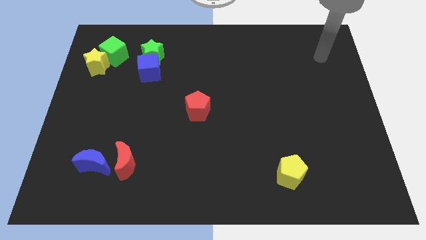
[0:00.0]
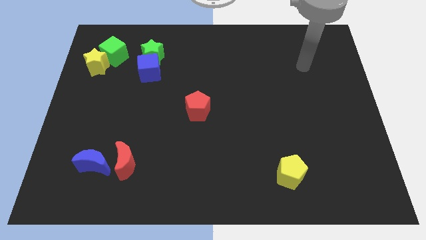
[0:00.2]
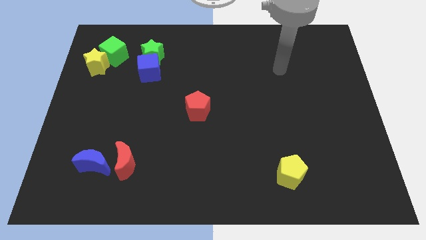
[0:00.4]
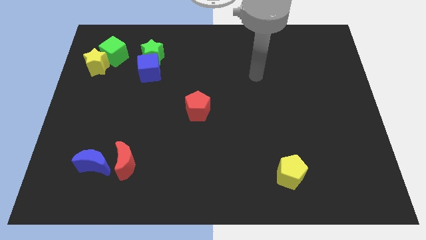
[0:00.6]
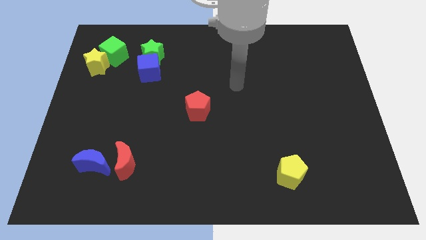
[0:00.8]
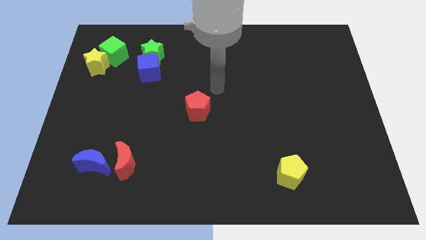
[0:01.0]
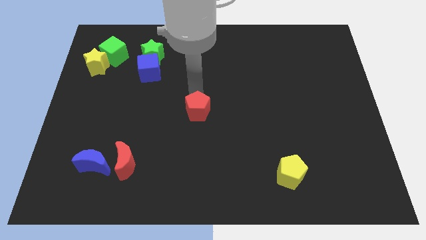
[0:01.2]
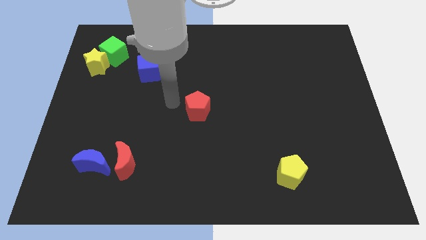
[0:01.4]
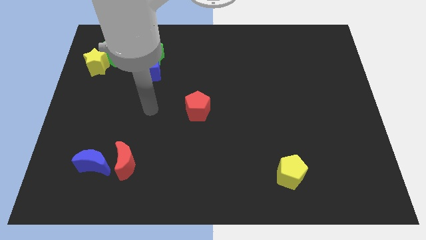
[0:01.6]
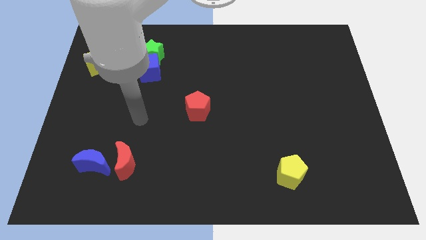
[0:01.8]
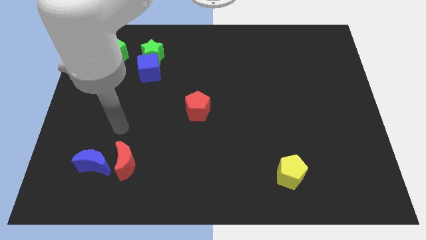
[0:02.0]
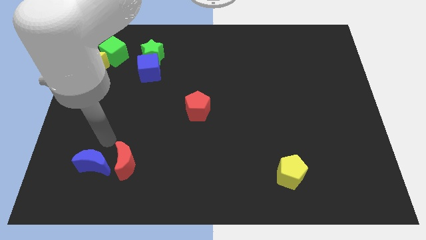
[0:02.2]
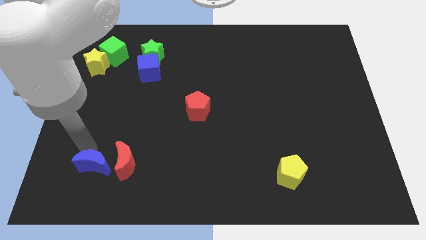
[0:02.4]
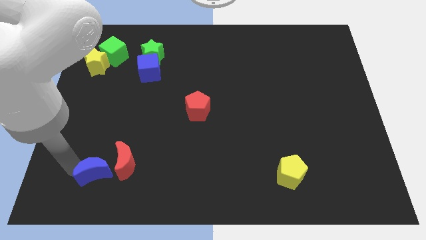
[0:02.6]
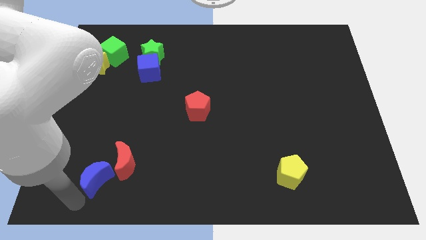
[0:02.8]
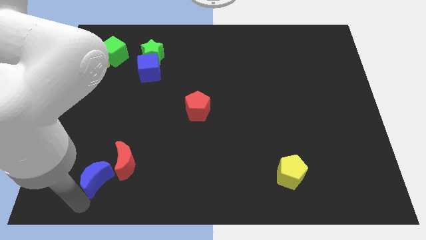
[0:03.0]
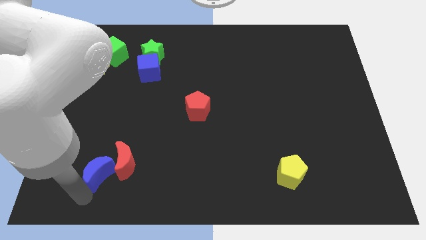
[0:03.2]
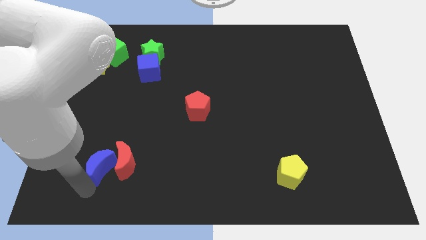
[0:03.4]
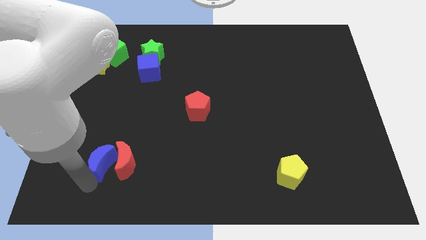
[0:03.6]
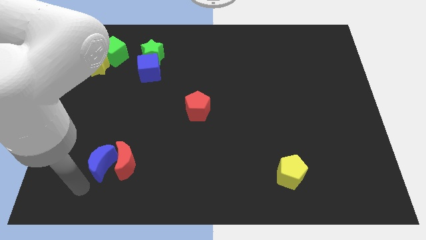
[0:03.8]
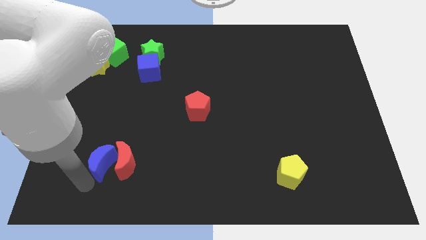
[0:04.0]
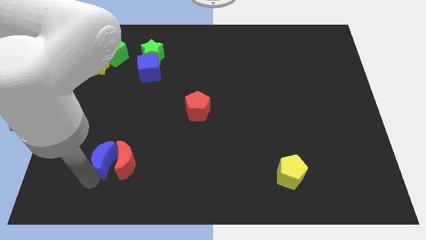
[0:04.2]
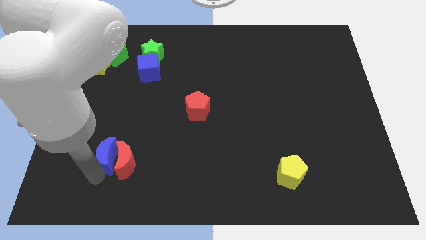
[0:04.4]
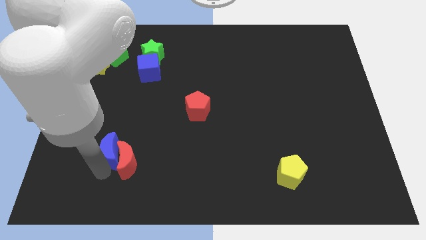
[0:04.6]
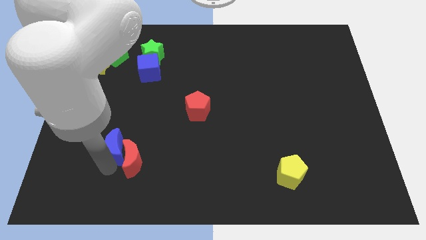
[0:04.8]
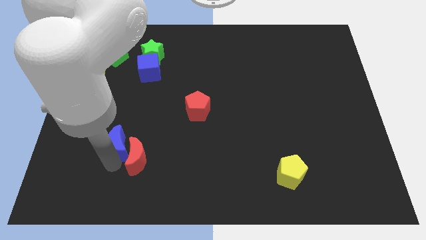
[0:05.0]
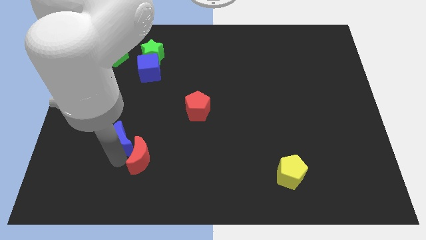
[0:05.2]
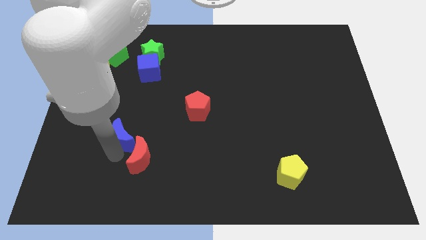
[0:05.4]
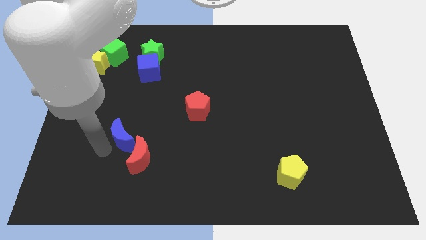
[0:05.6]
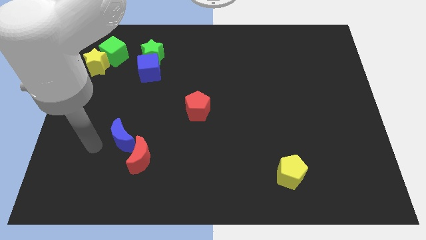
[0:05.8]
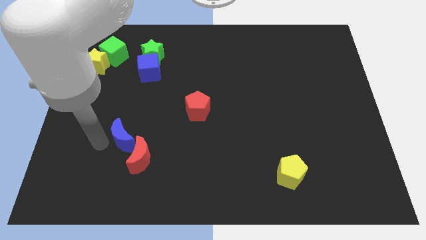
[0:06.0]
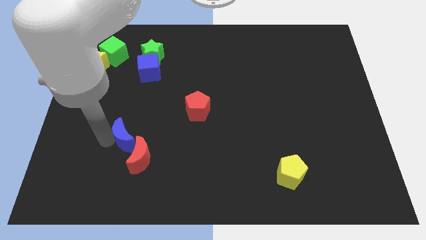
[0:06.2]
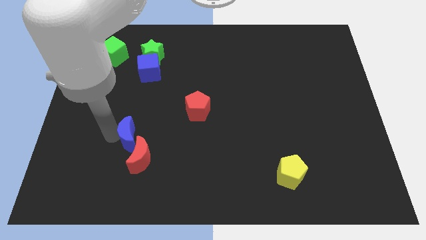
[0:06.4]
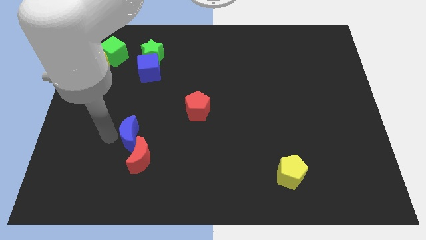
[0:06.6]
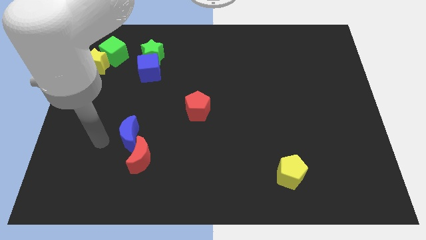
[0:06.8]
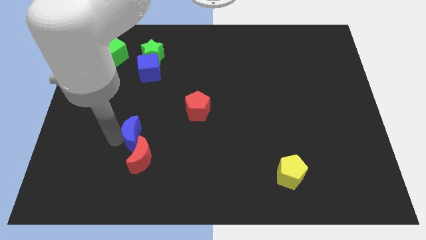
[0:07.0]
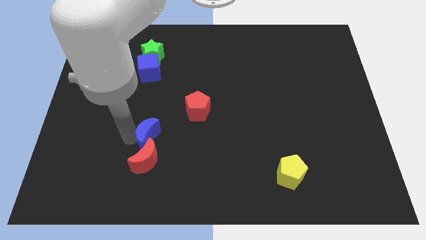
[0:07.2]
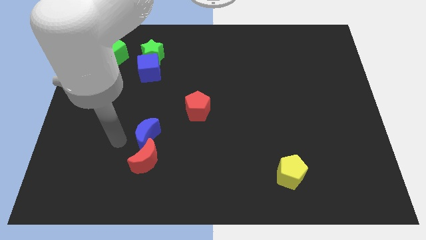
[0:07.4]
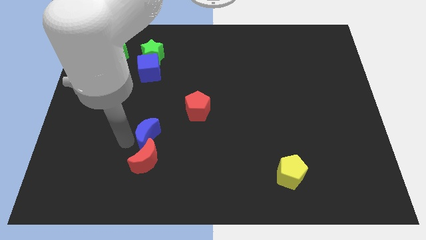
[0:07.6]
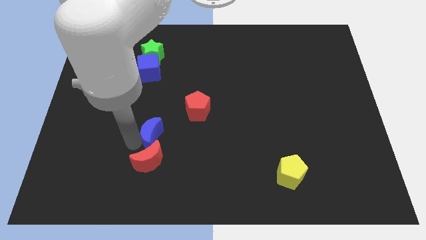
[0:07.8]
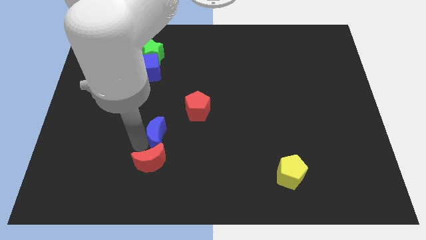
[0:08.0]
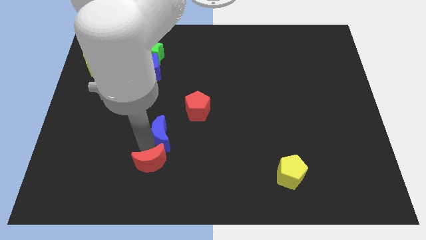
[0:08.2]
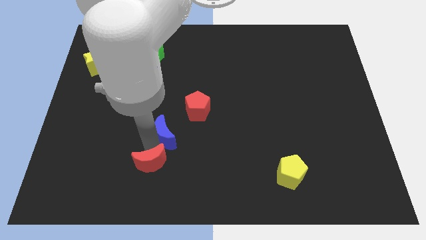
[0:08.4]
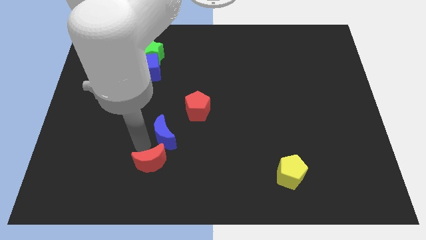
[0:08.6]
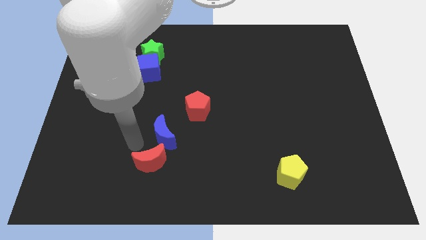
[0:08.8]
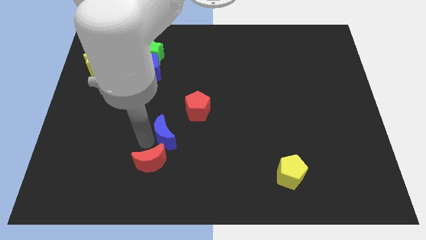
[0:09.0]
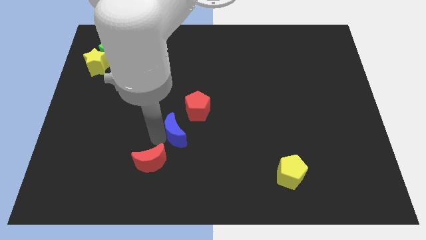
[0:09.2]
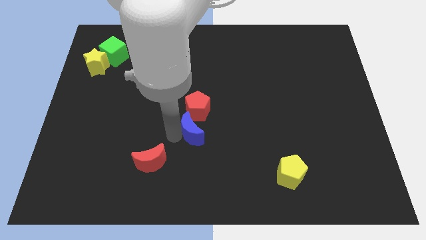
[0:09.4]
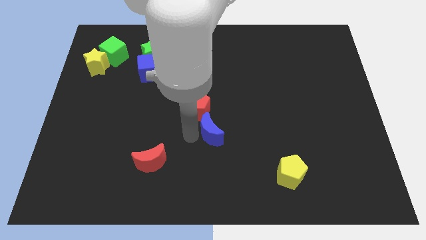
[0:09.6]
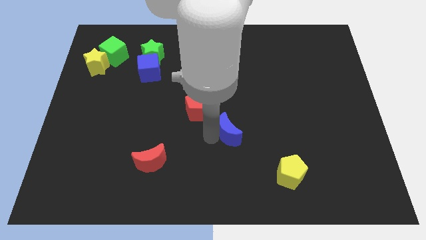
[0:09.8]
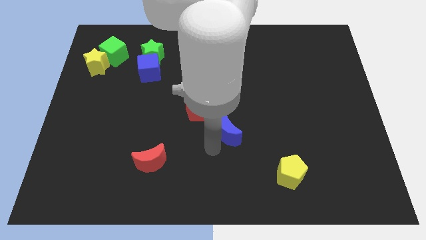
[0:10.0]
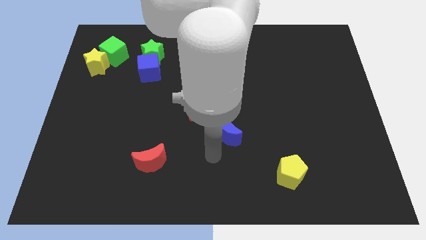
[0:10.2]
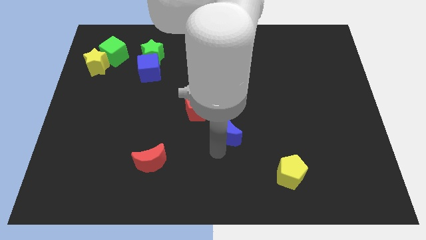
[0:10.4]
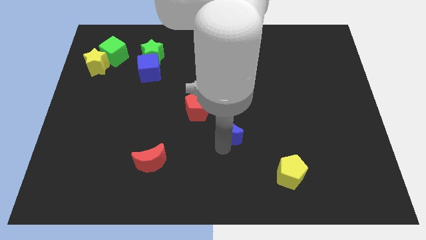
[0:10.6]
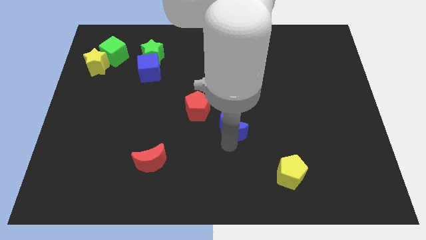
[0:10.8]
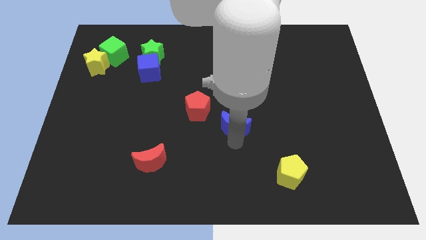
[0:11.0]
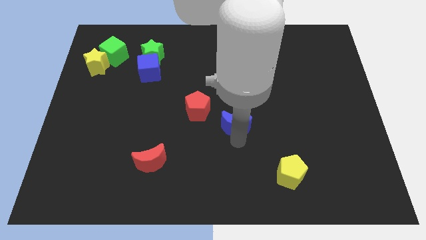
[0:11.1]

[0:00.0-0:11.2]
push the blue moon right of the red pentagon
